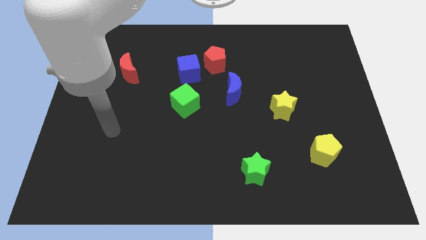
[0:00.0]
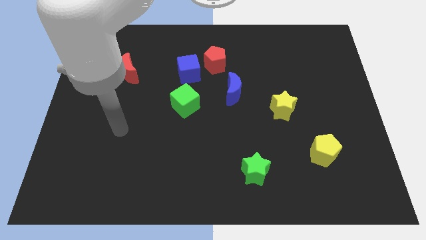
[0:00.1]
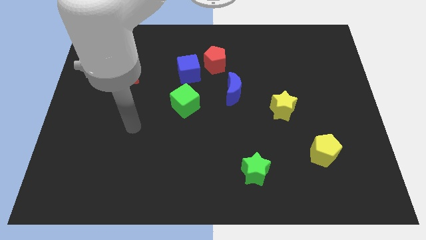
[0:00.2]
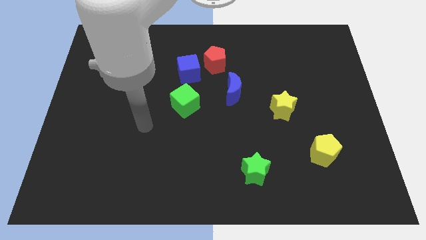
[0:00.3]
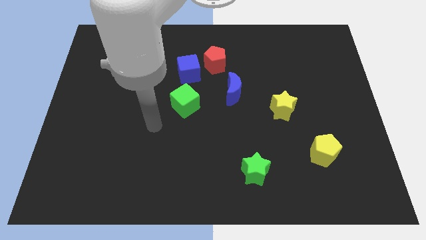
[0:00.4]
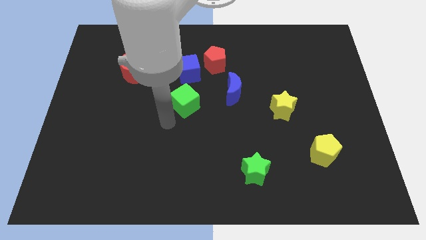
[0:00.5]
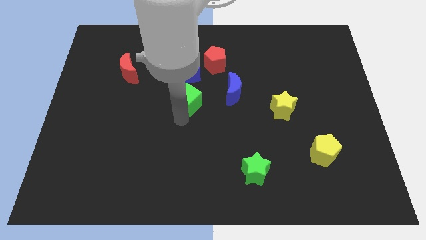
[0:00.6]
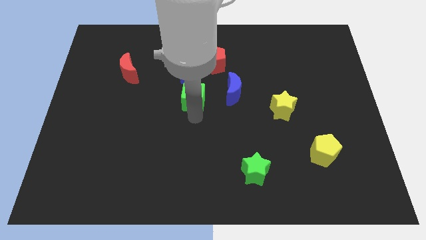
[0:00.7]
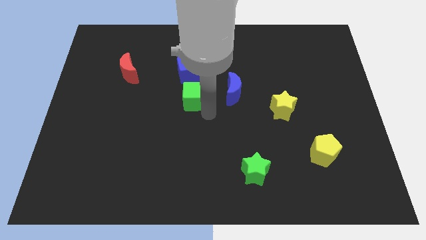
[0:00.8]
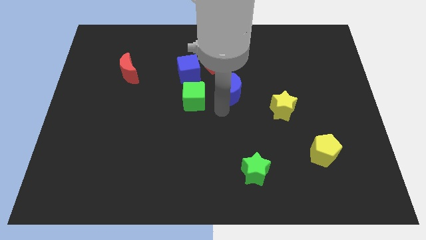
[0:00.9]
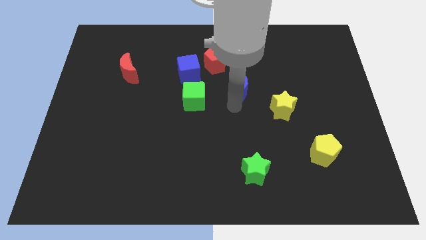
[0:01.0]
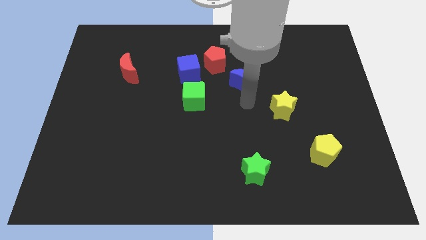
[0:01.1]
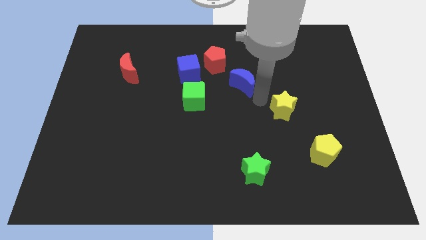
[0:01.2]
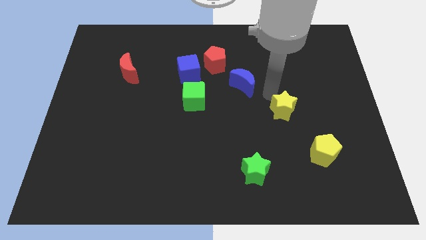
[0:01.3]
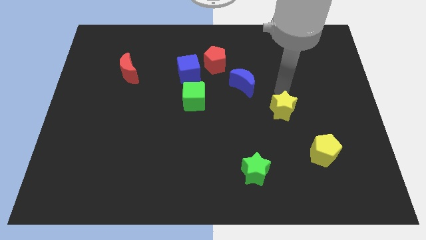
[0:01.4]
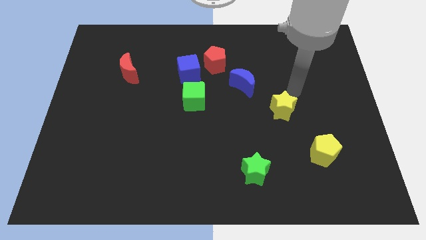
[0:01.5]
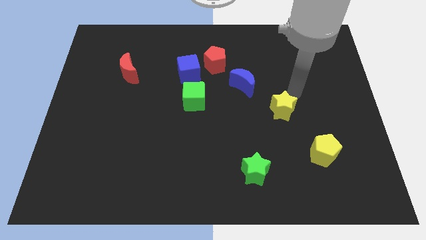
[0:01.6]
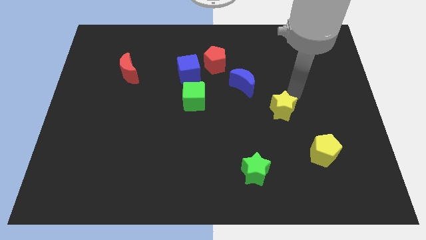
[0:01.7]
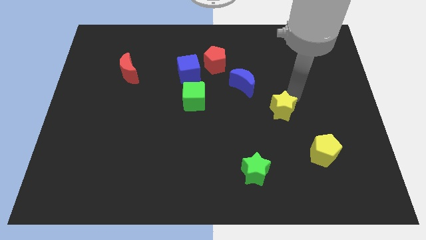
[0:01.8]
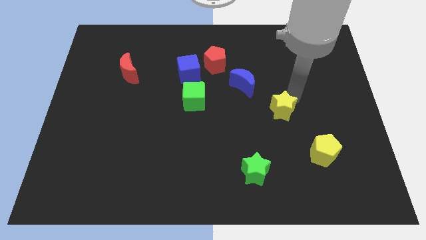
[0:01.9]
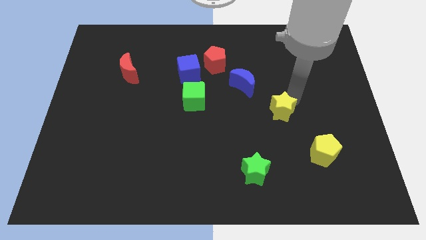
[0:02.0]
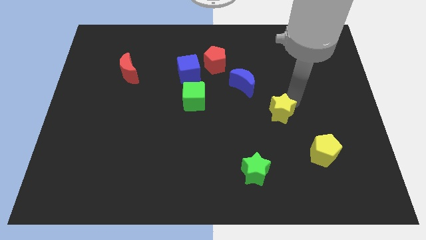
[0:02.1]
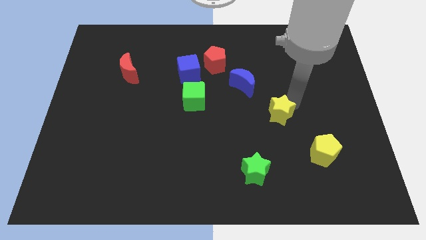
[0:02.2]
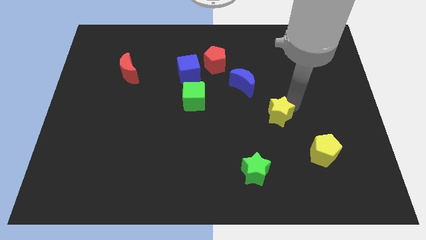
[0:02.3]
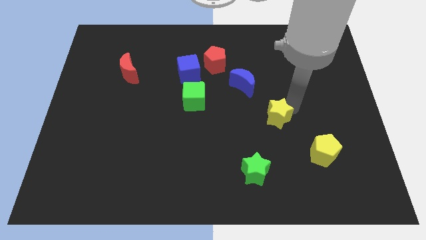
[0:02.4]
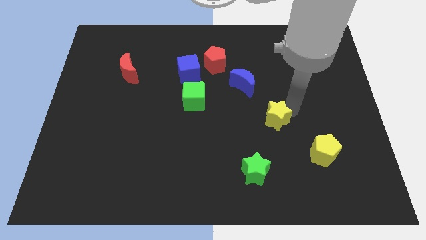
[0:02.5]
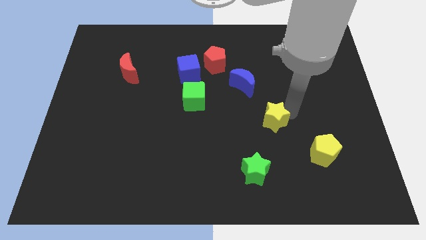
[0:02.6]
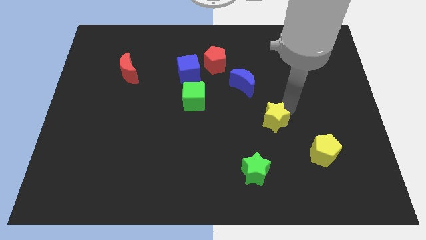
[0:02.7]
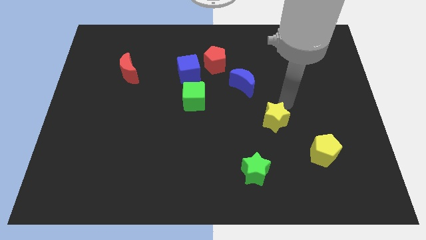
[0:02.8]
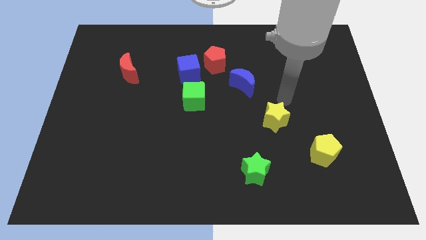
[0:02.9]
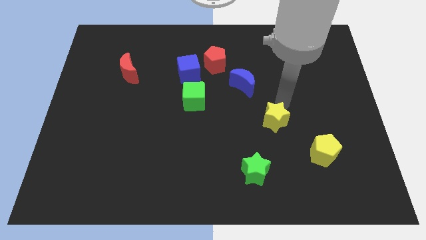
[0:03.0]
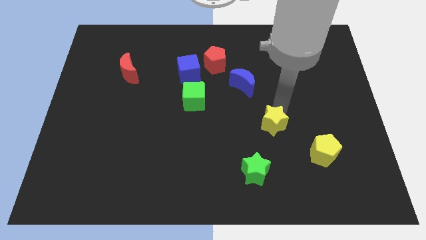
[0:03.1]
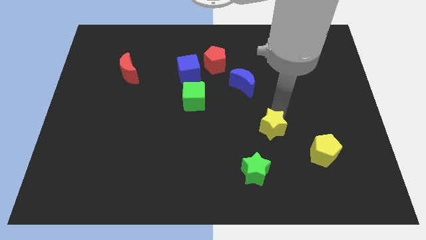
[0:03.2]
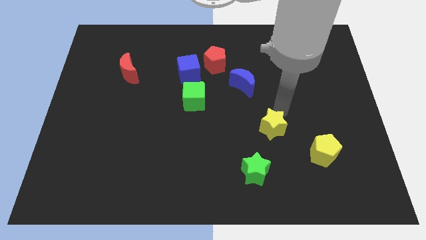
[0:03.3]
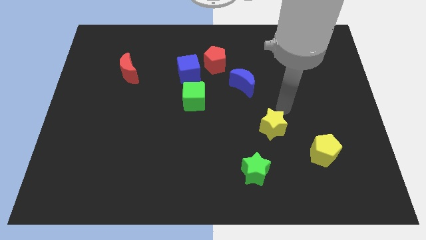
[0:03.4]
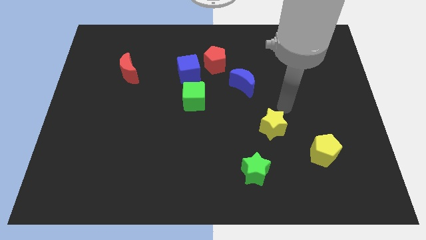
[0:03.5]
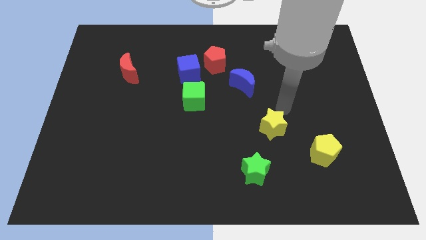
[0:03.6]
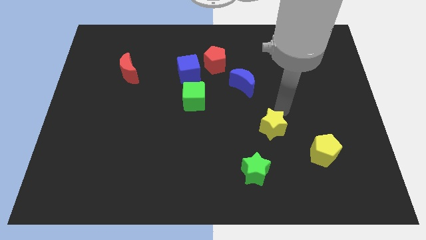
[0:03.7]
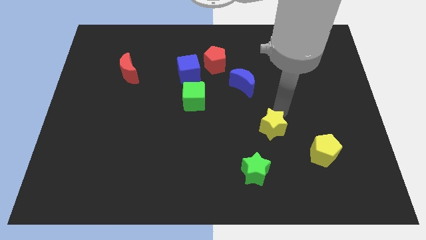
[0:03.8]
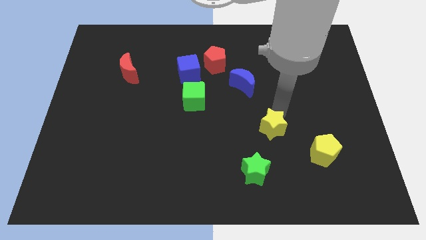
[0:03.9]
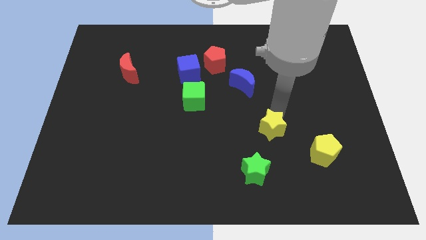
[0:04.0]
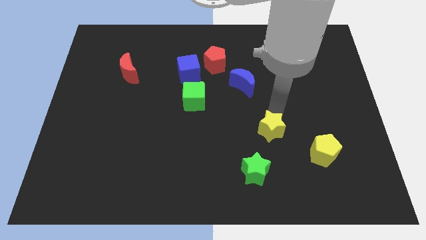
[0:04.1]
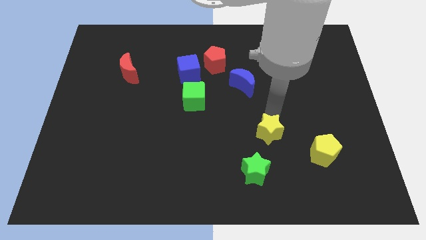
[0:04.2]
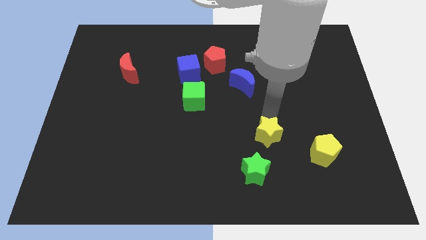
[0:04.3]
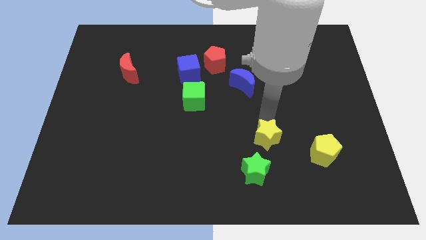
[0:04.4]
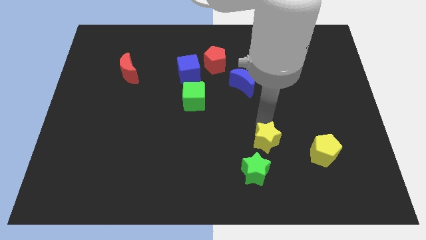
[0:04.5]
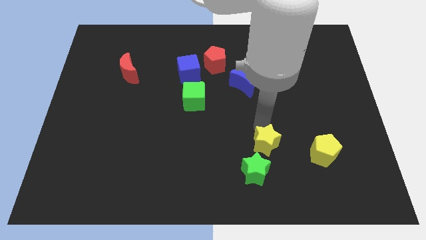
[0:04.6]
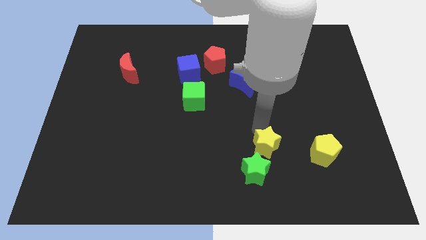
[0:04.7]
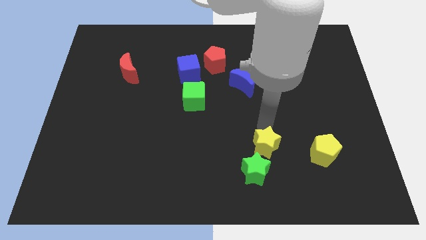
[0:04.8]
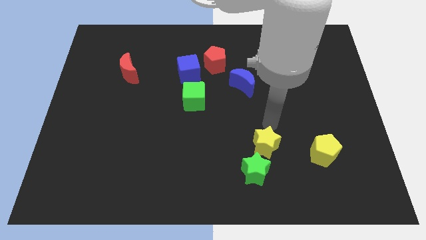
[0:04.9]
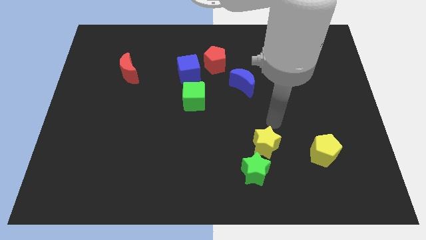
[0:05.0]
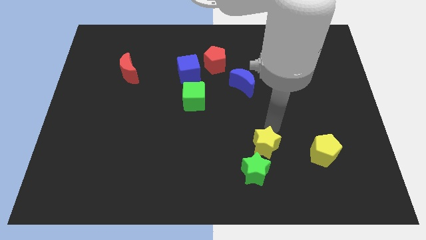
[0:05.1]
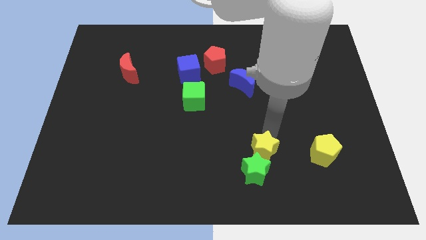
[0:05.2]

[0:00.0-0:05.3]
push the yellow star close to the green star

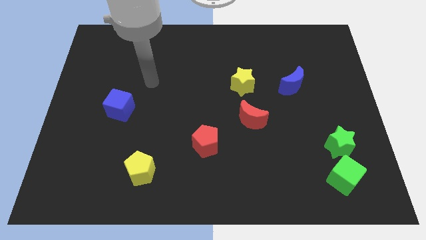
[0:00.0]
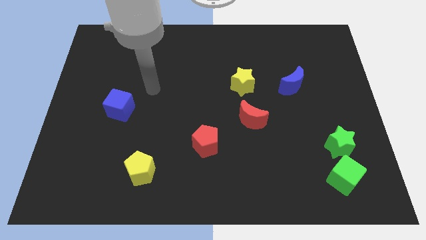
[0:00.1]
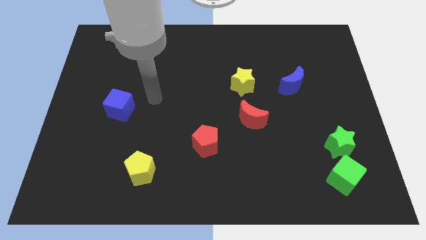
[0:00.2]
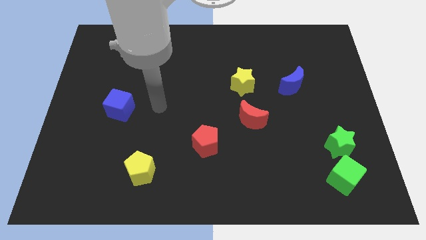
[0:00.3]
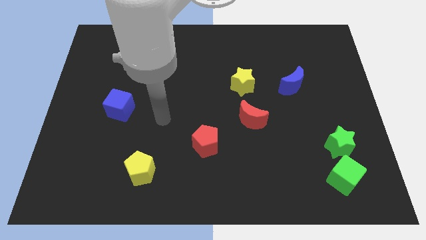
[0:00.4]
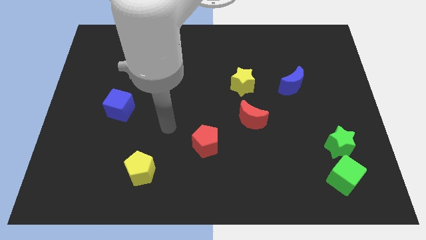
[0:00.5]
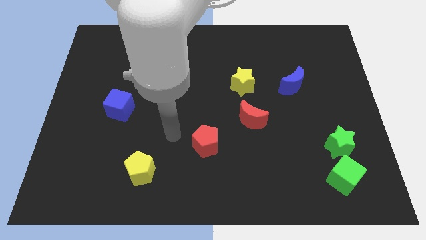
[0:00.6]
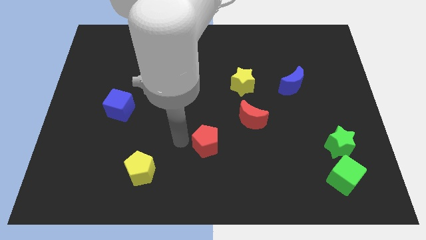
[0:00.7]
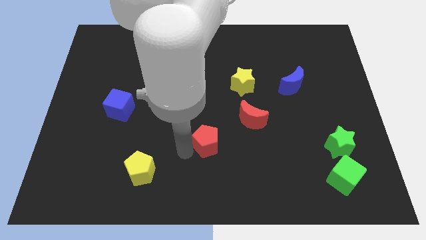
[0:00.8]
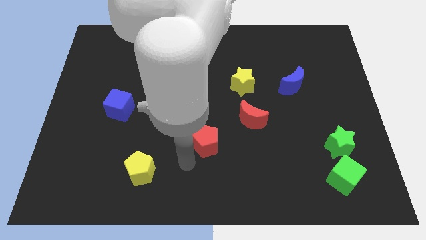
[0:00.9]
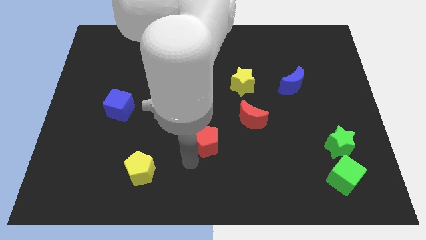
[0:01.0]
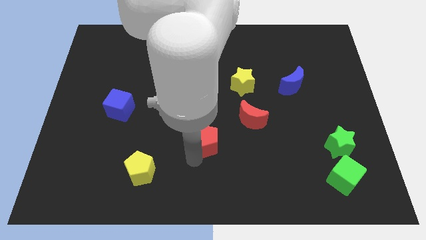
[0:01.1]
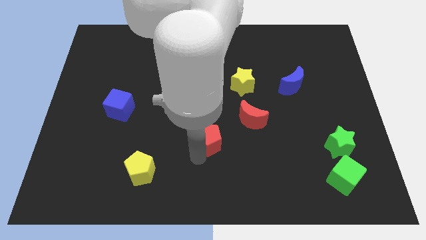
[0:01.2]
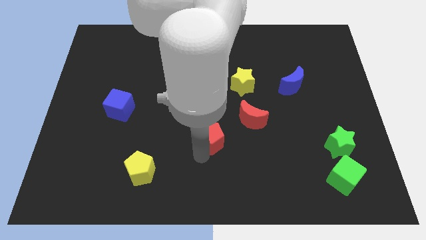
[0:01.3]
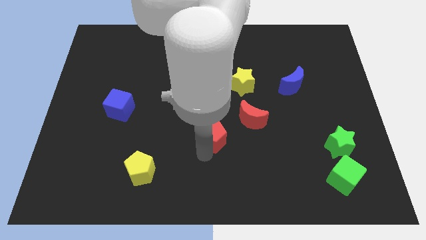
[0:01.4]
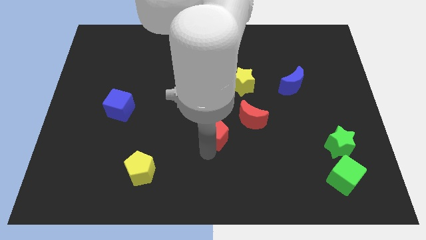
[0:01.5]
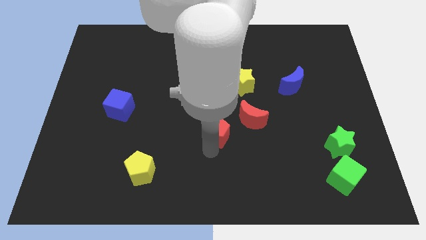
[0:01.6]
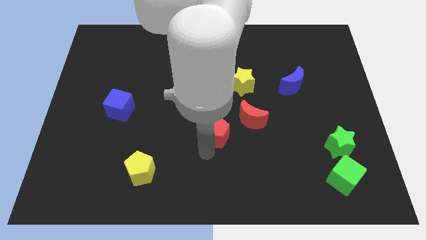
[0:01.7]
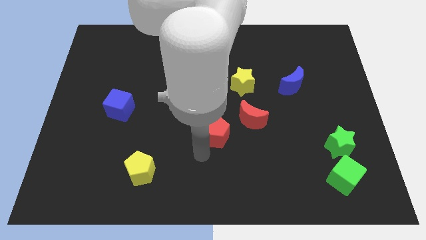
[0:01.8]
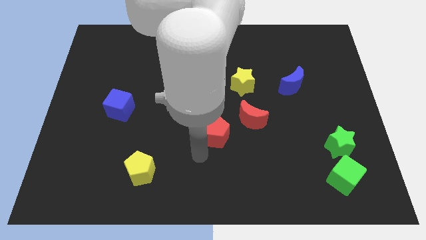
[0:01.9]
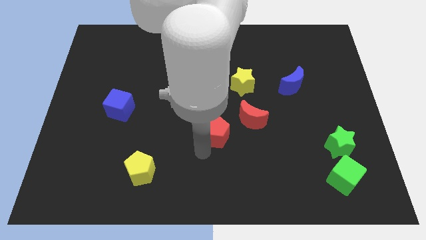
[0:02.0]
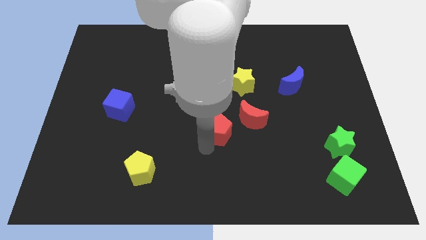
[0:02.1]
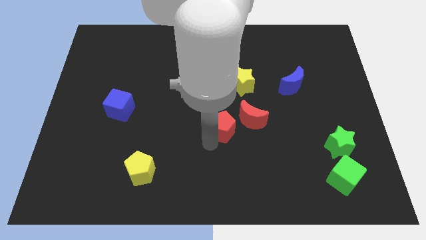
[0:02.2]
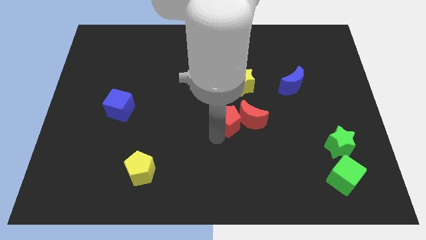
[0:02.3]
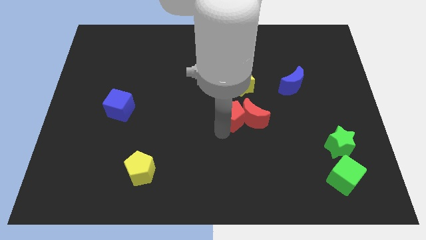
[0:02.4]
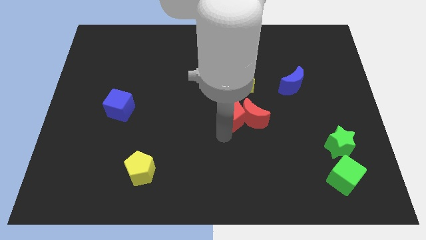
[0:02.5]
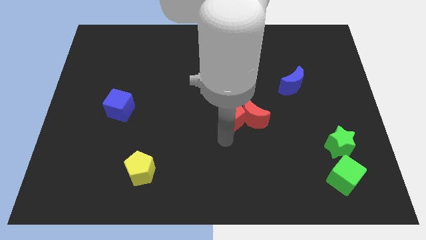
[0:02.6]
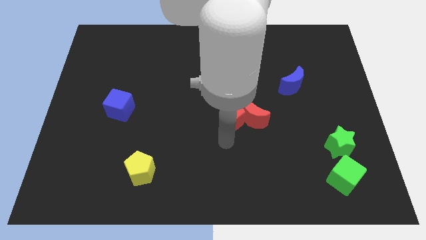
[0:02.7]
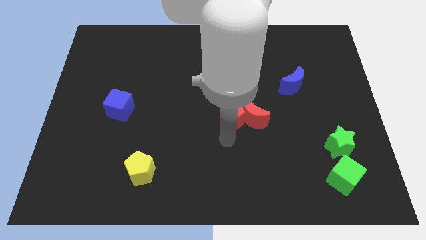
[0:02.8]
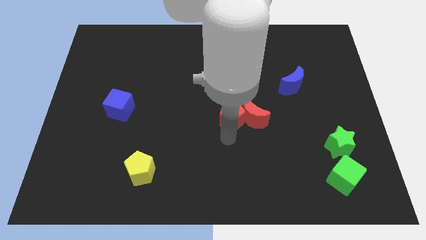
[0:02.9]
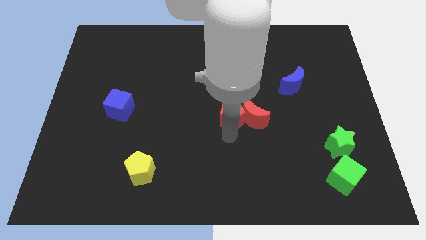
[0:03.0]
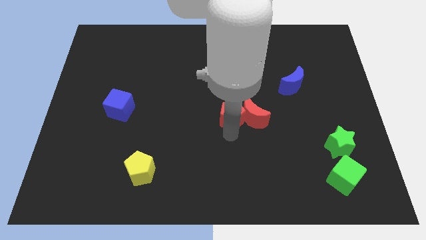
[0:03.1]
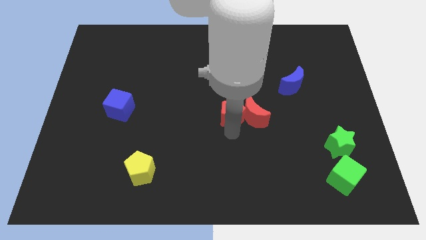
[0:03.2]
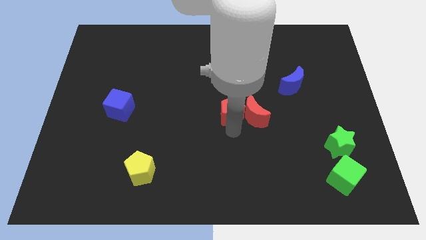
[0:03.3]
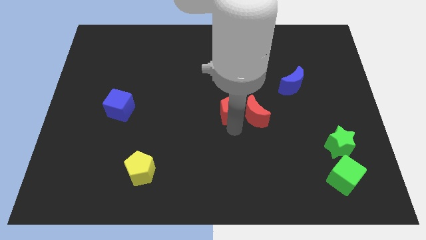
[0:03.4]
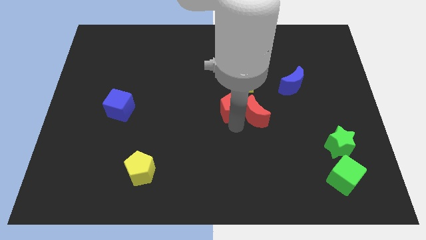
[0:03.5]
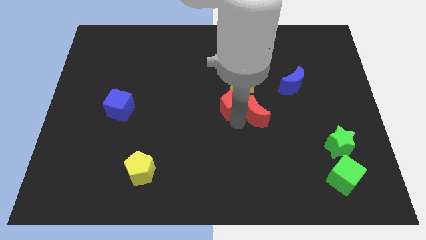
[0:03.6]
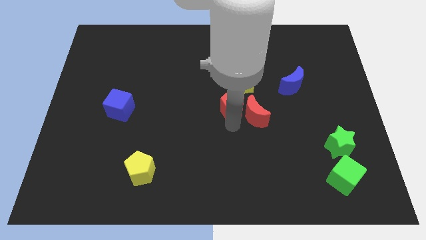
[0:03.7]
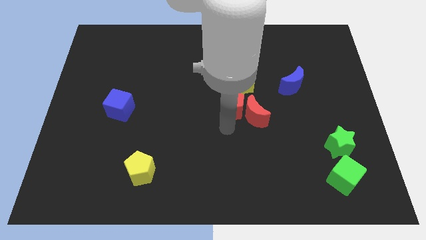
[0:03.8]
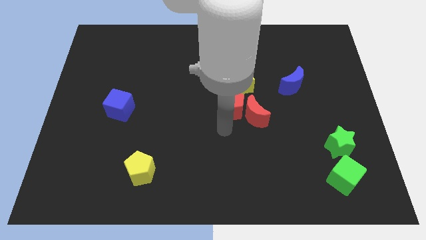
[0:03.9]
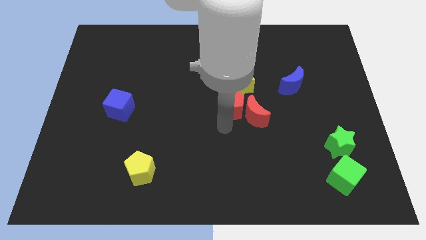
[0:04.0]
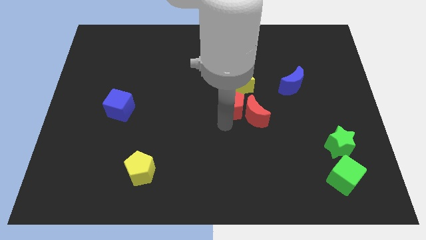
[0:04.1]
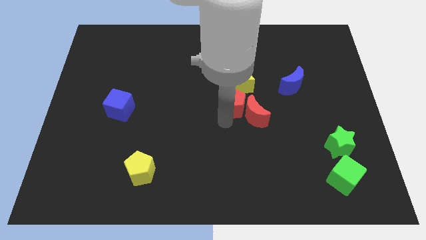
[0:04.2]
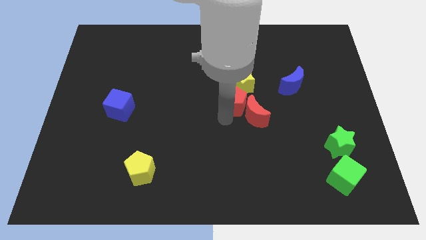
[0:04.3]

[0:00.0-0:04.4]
slide the red pentagon towards the yellow star
